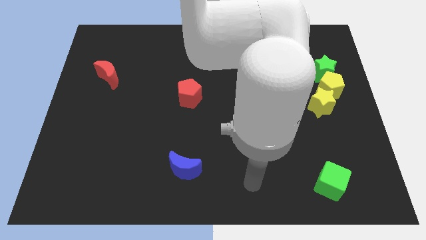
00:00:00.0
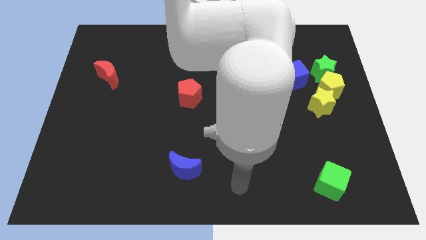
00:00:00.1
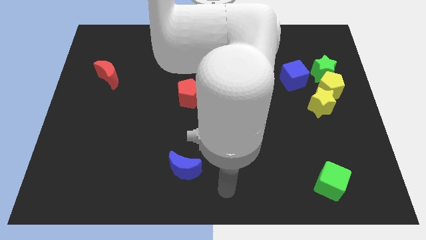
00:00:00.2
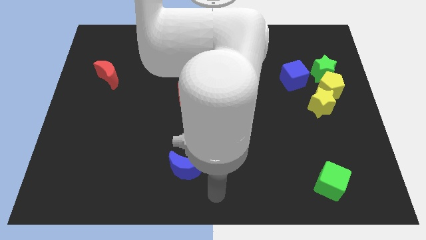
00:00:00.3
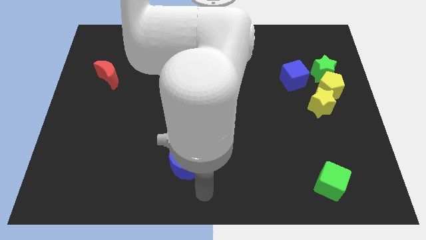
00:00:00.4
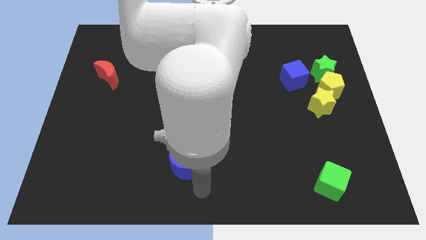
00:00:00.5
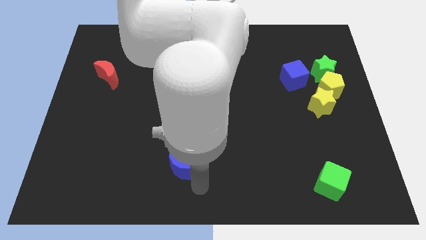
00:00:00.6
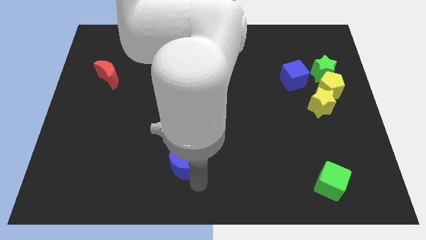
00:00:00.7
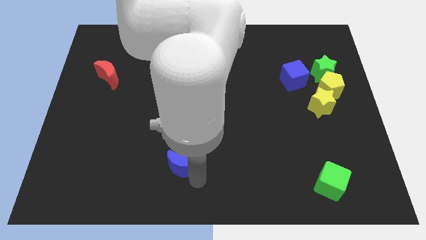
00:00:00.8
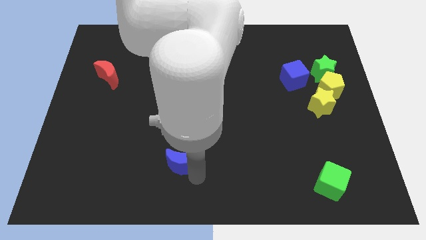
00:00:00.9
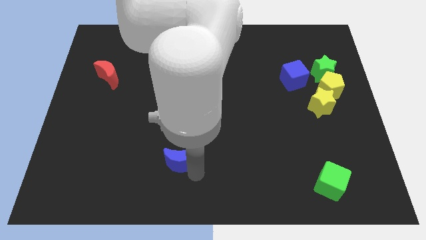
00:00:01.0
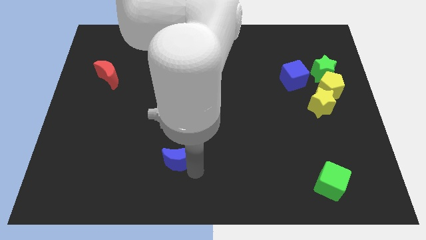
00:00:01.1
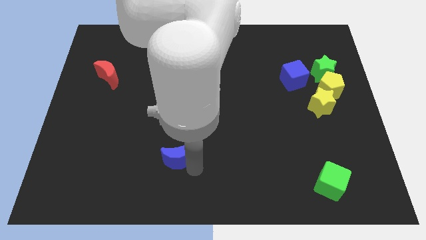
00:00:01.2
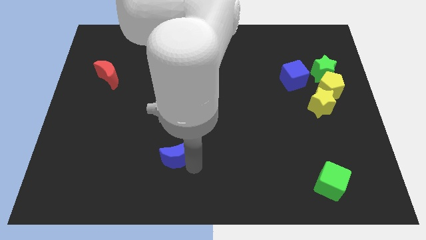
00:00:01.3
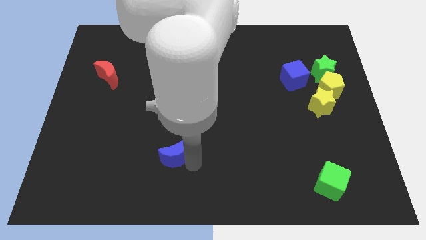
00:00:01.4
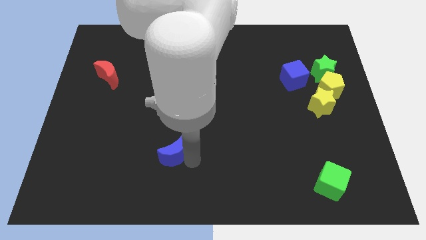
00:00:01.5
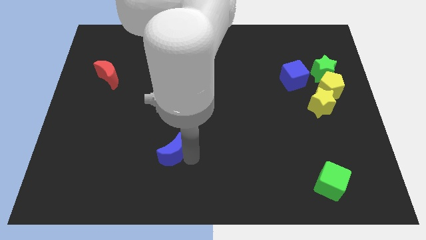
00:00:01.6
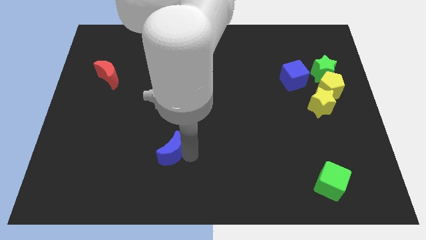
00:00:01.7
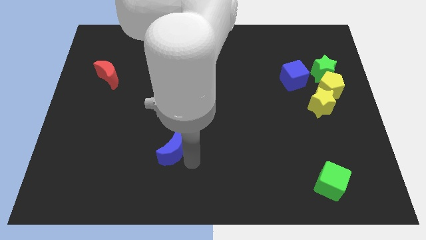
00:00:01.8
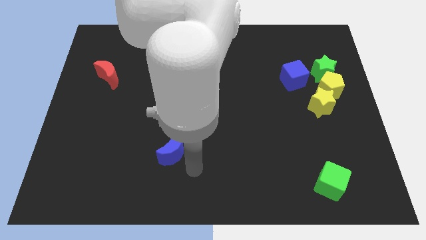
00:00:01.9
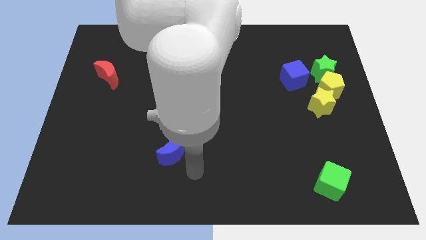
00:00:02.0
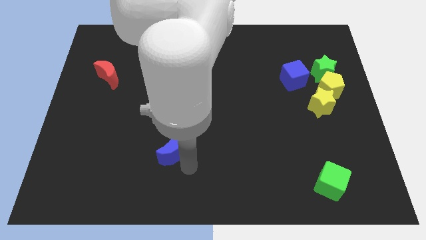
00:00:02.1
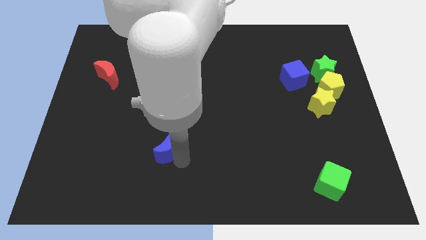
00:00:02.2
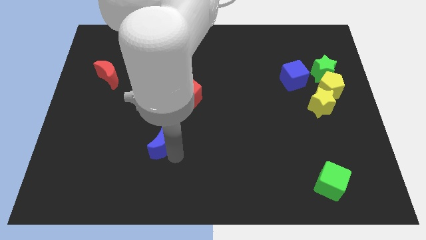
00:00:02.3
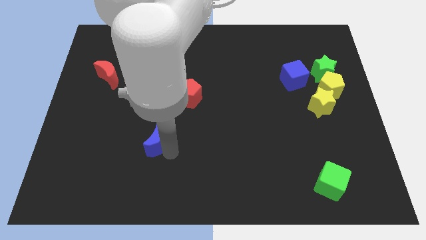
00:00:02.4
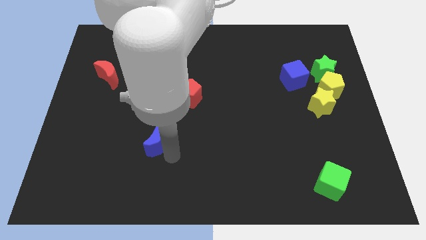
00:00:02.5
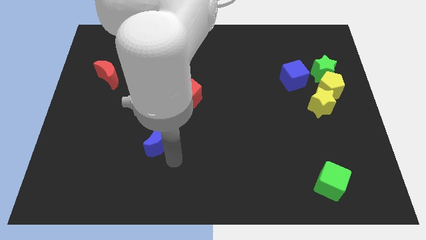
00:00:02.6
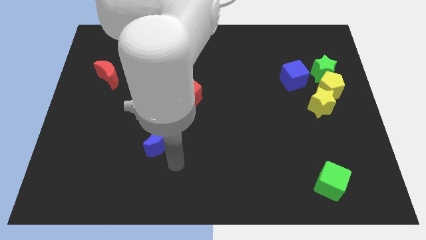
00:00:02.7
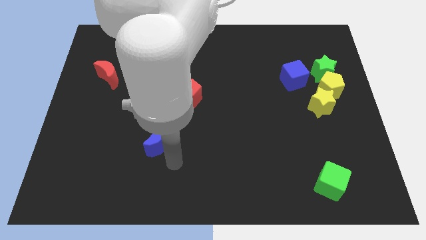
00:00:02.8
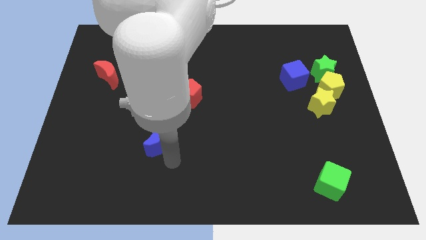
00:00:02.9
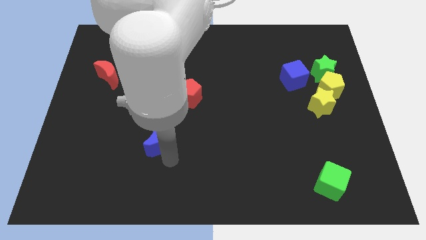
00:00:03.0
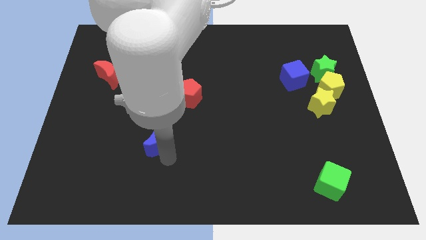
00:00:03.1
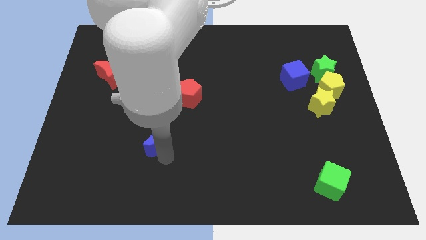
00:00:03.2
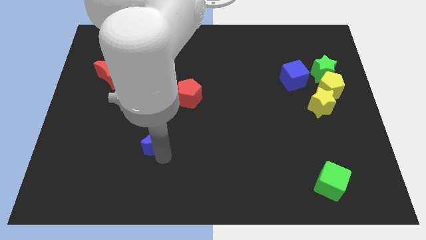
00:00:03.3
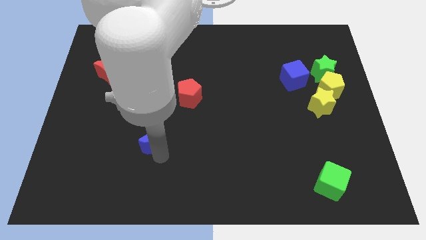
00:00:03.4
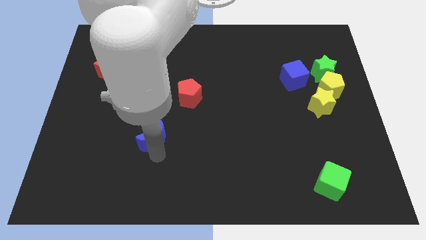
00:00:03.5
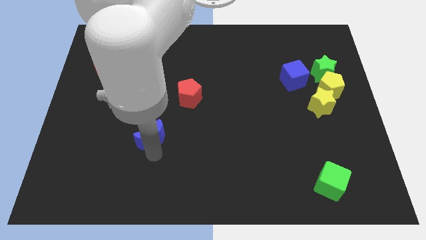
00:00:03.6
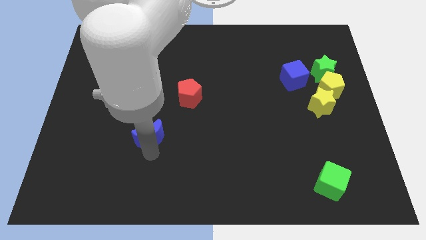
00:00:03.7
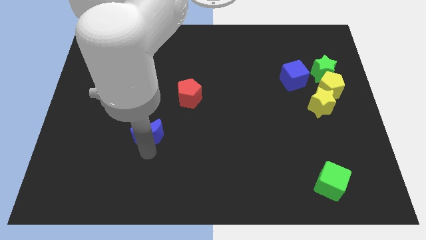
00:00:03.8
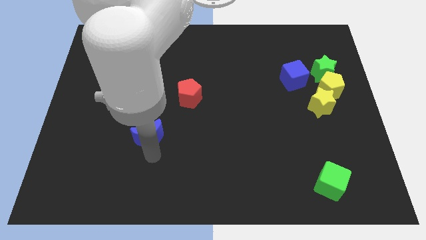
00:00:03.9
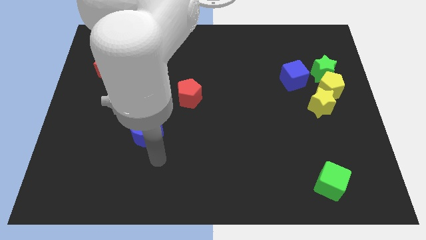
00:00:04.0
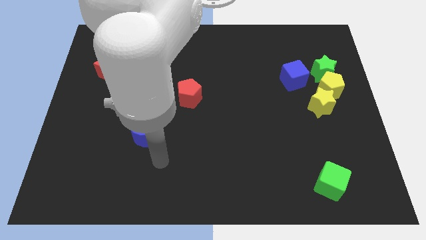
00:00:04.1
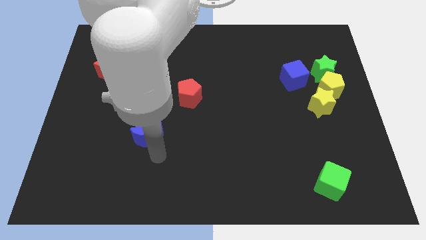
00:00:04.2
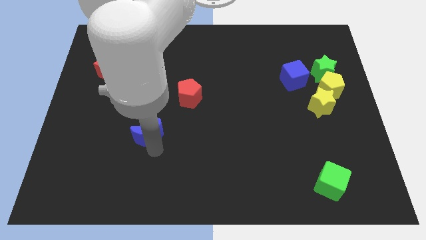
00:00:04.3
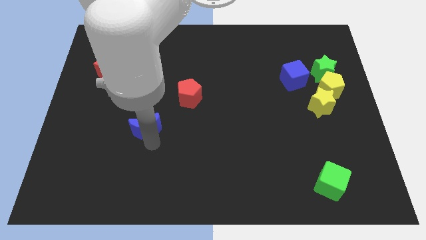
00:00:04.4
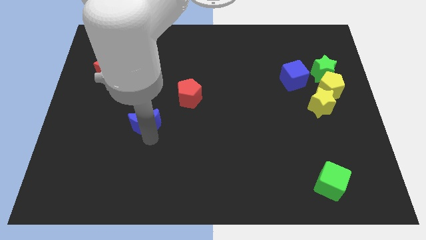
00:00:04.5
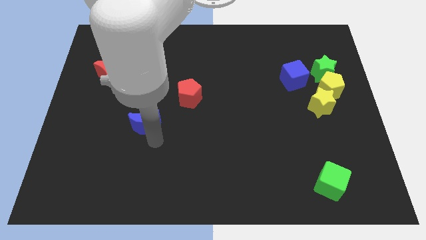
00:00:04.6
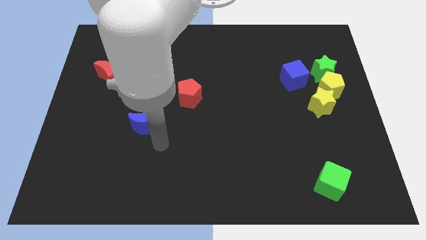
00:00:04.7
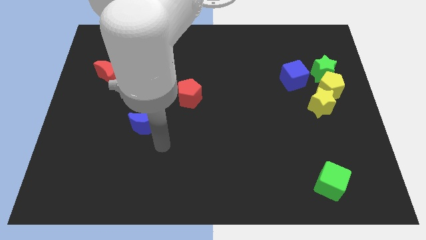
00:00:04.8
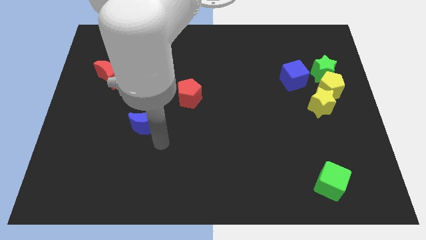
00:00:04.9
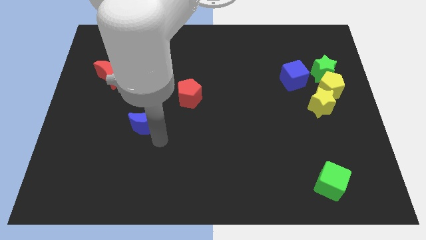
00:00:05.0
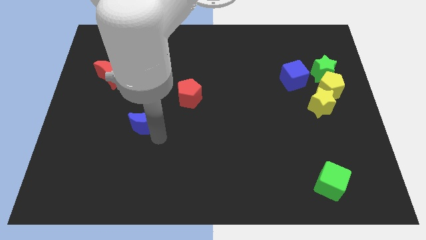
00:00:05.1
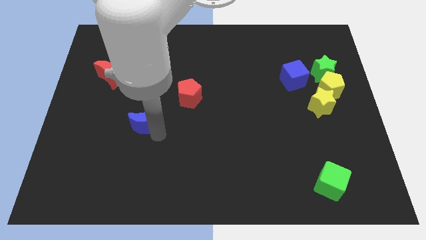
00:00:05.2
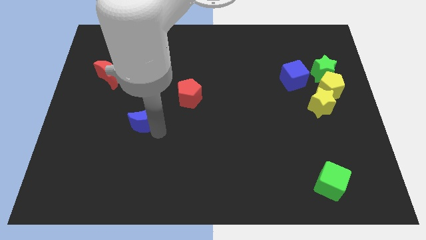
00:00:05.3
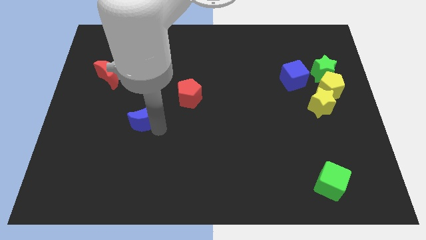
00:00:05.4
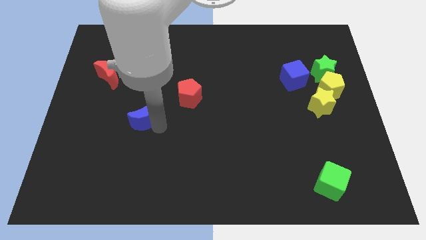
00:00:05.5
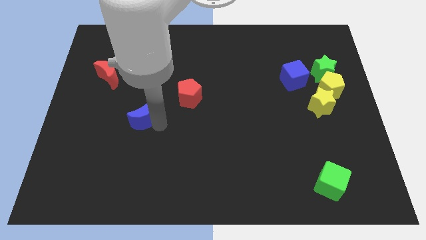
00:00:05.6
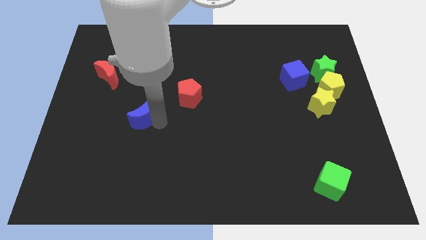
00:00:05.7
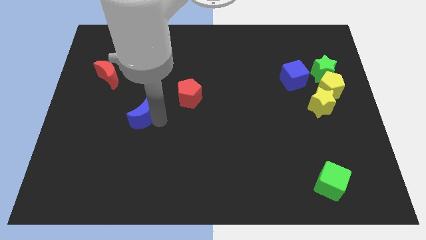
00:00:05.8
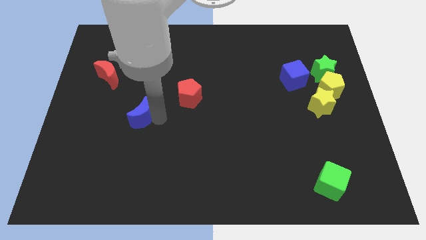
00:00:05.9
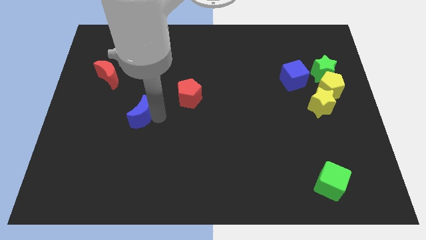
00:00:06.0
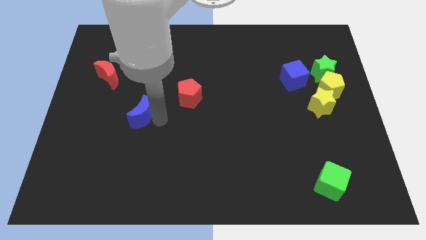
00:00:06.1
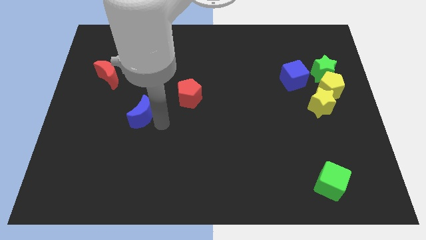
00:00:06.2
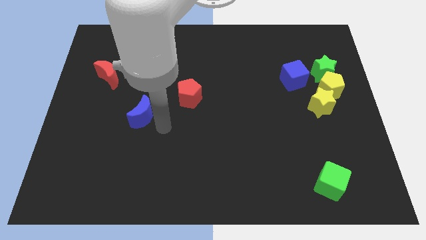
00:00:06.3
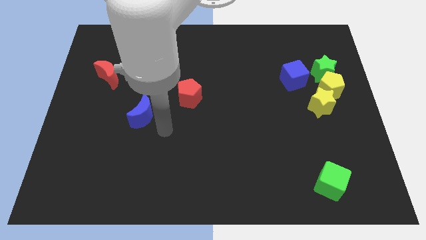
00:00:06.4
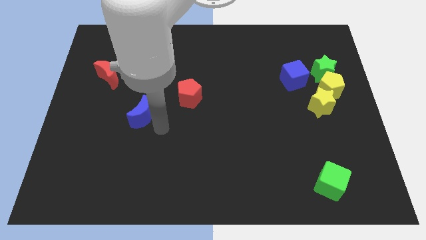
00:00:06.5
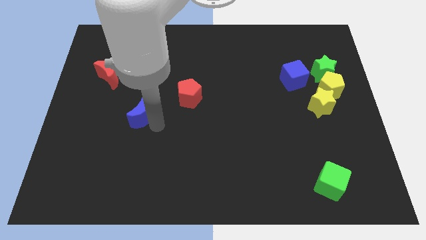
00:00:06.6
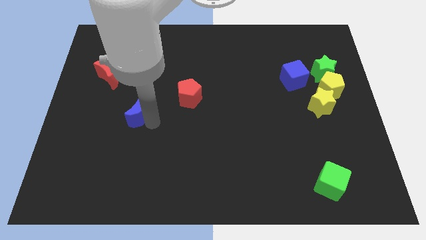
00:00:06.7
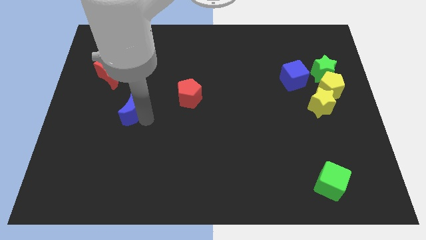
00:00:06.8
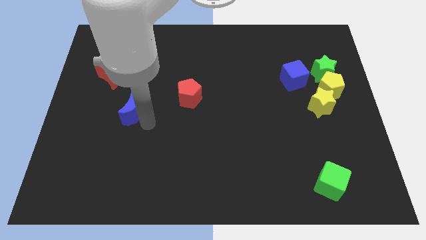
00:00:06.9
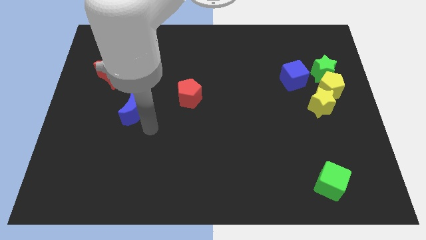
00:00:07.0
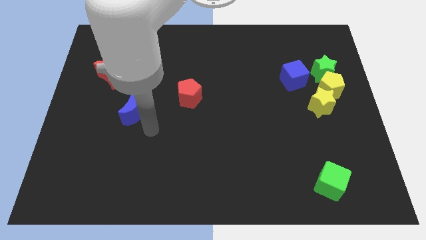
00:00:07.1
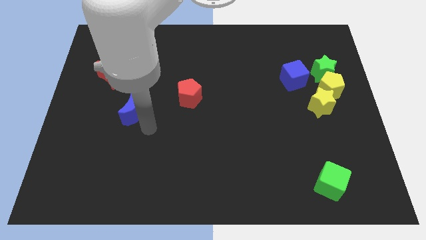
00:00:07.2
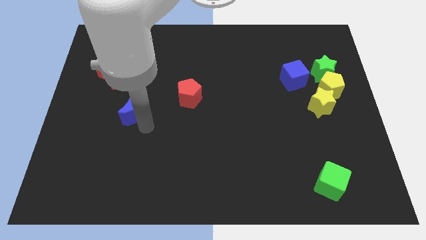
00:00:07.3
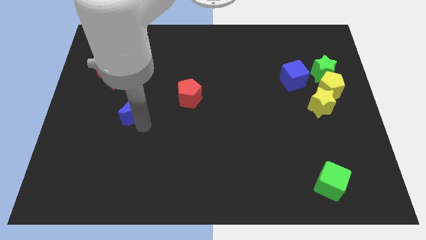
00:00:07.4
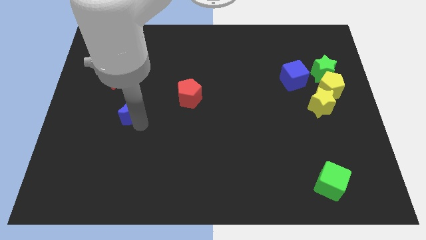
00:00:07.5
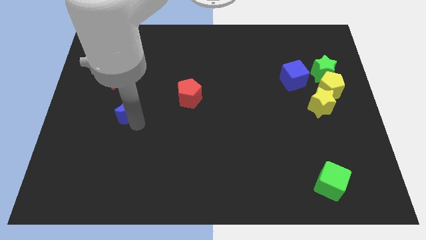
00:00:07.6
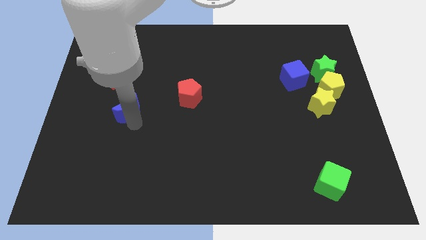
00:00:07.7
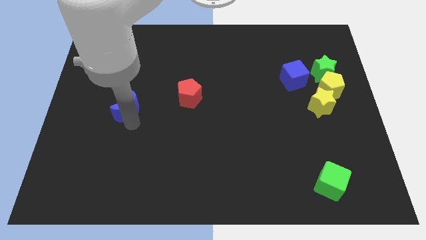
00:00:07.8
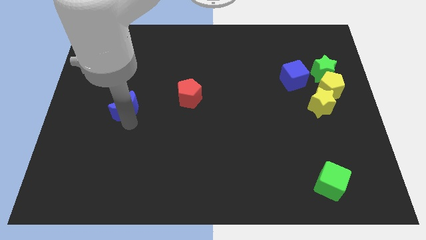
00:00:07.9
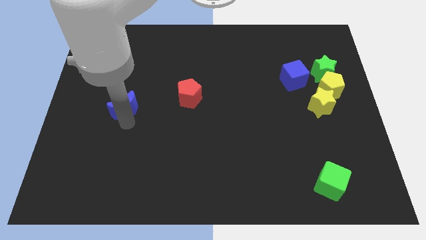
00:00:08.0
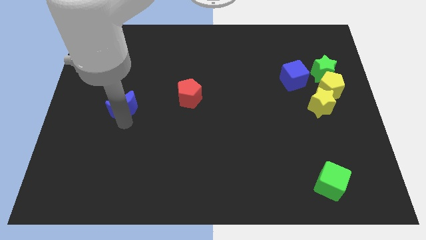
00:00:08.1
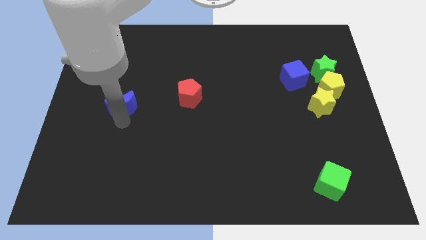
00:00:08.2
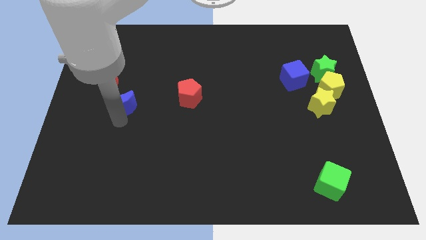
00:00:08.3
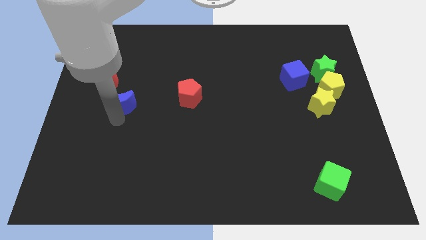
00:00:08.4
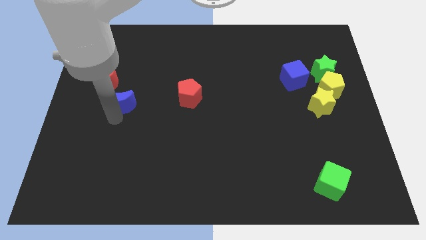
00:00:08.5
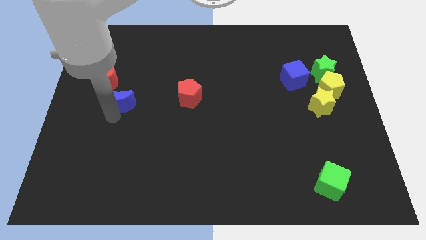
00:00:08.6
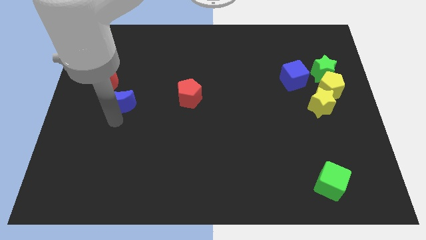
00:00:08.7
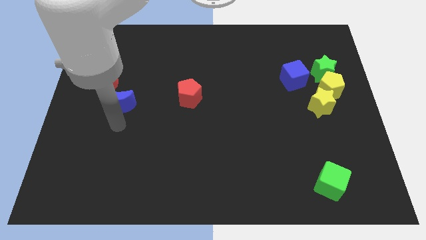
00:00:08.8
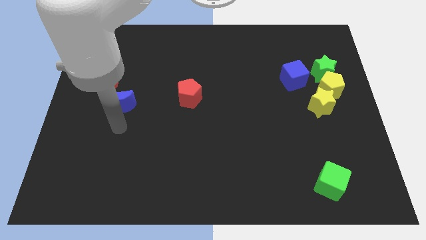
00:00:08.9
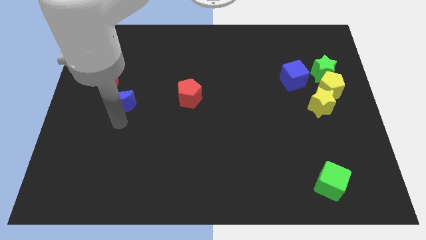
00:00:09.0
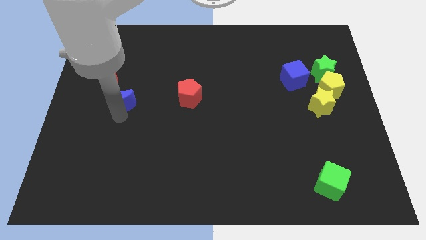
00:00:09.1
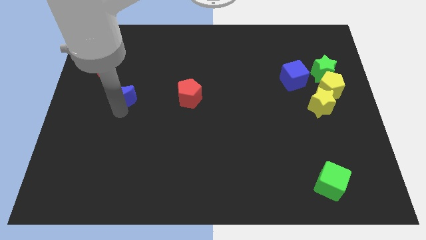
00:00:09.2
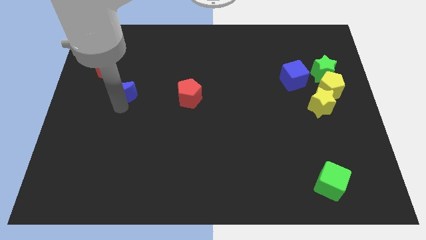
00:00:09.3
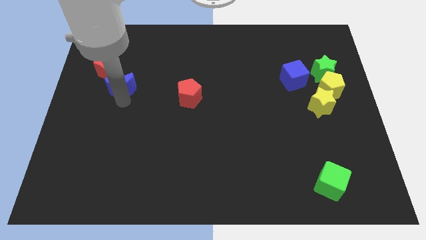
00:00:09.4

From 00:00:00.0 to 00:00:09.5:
put the blue moon towards the red moon
